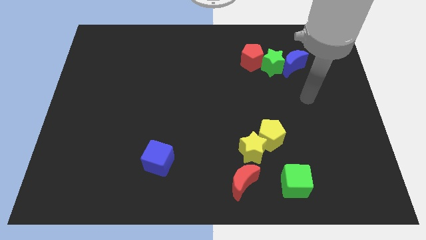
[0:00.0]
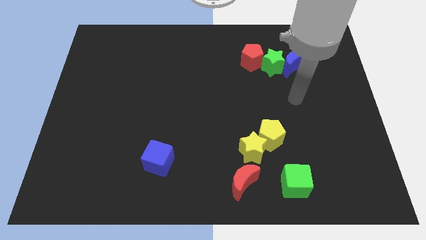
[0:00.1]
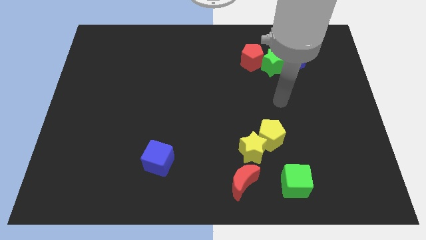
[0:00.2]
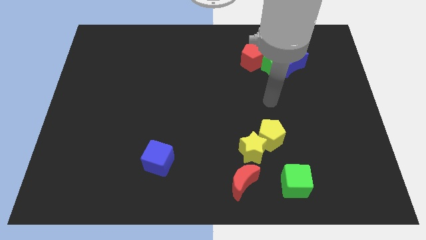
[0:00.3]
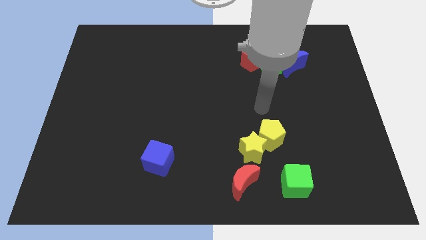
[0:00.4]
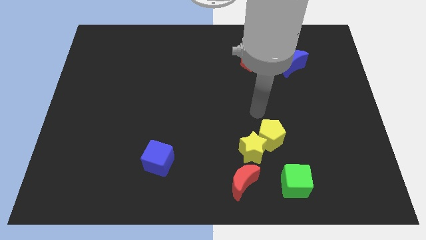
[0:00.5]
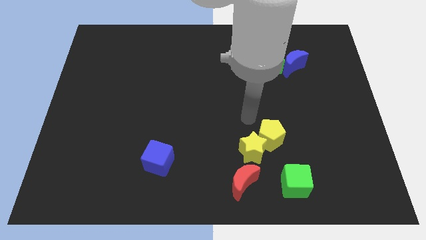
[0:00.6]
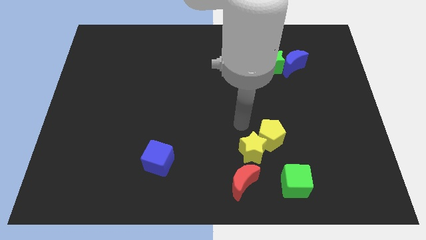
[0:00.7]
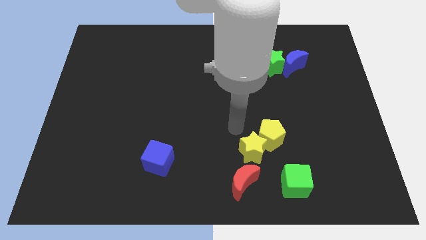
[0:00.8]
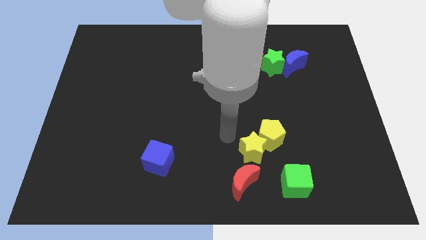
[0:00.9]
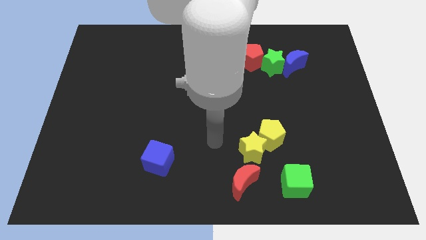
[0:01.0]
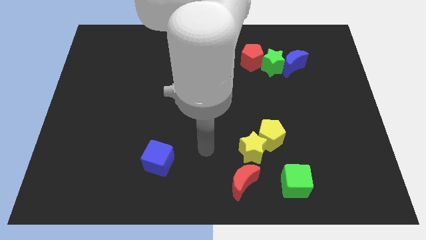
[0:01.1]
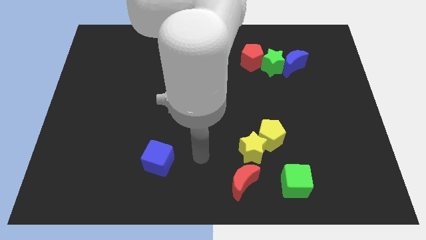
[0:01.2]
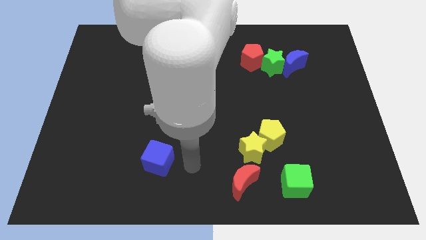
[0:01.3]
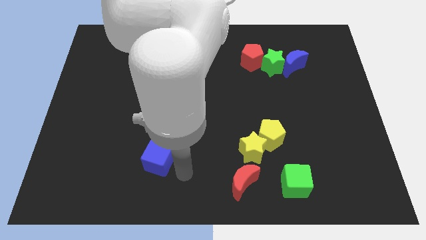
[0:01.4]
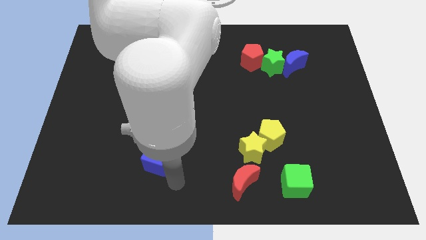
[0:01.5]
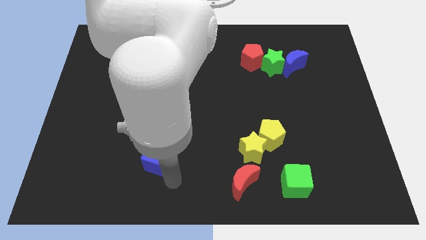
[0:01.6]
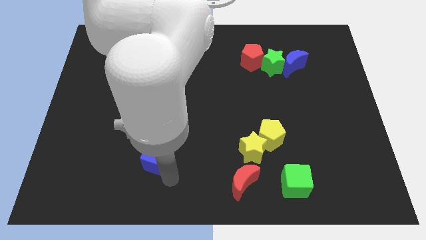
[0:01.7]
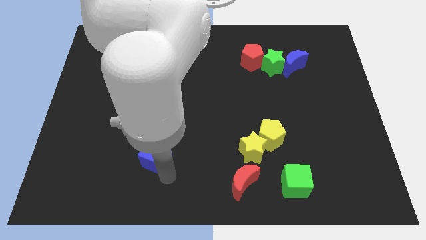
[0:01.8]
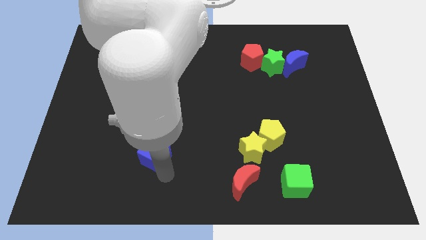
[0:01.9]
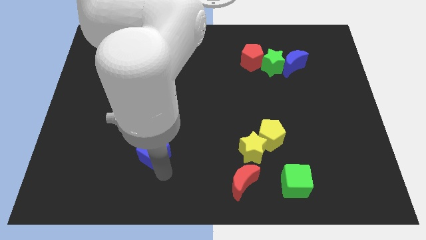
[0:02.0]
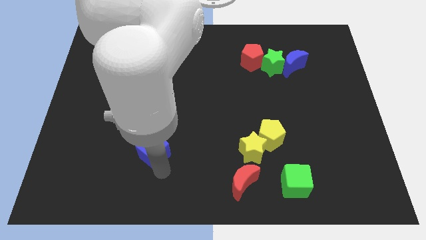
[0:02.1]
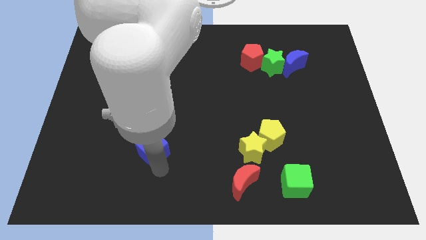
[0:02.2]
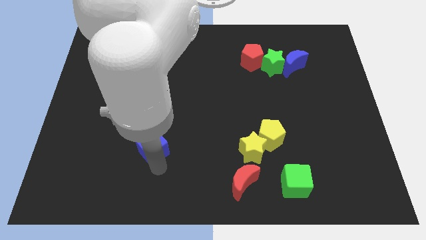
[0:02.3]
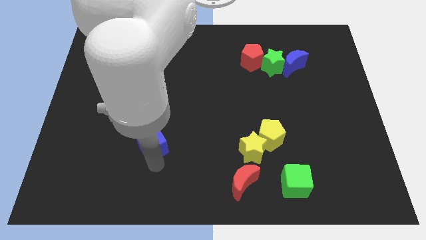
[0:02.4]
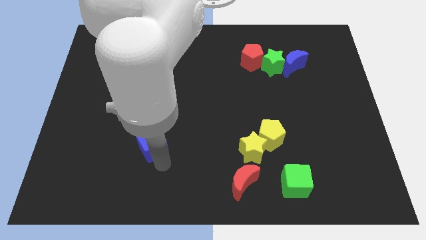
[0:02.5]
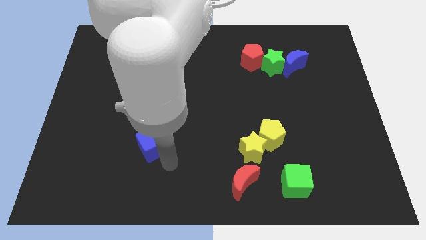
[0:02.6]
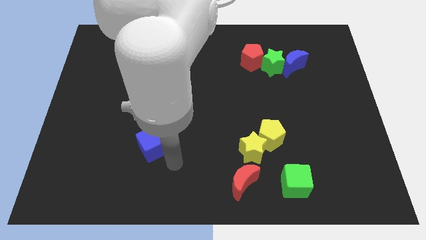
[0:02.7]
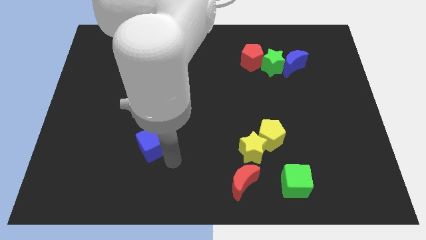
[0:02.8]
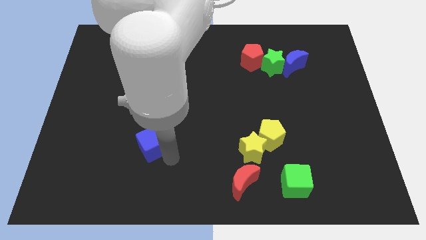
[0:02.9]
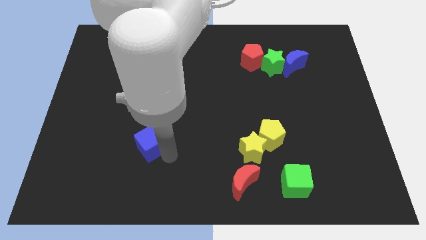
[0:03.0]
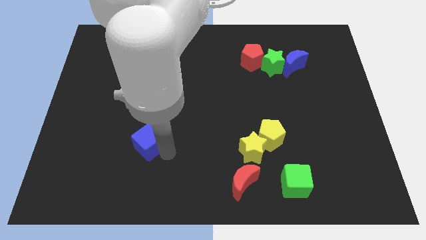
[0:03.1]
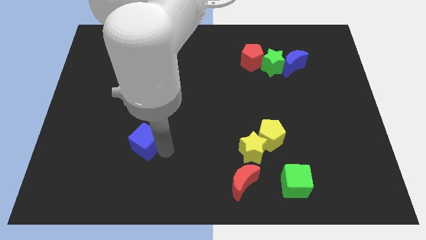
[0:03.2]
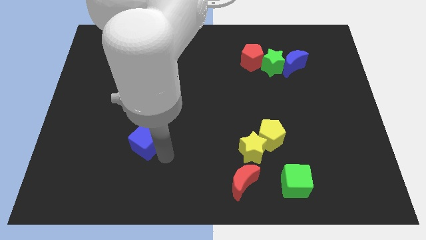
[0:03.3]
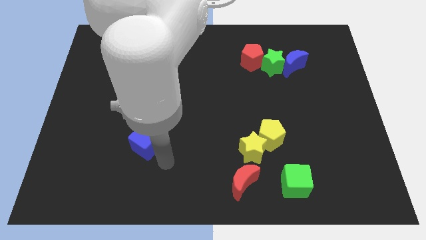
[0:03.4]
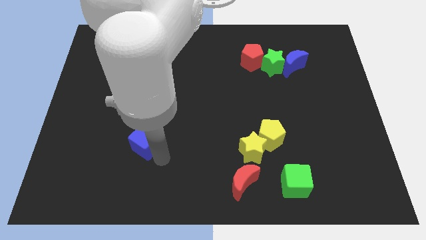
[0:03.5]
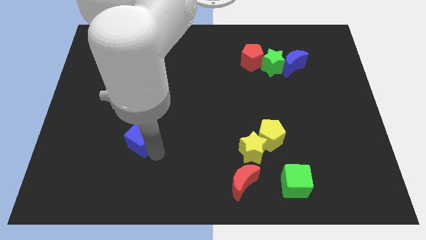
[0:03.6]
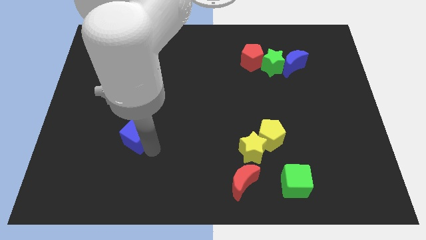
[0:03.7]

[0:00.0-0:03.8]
slide the blue cube diagonally upwards and to the left a bit

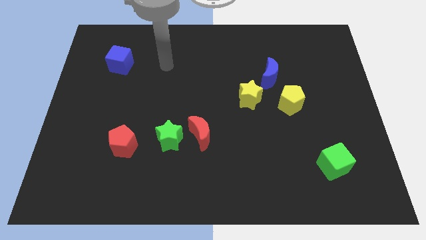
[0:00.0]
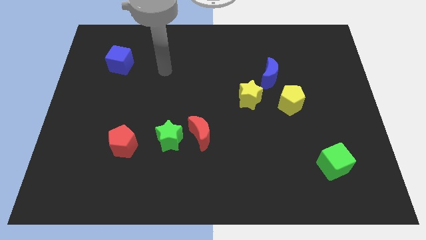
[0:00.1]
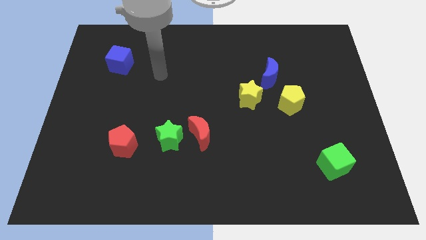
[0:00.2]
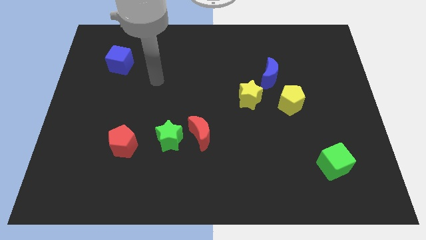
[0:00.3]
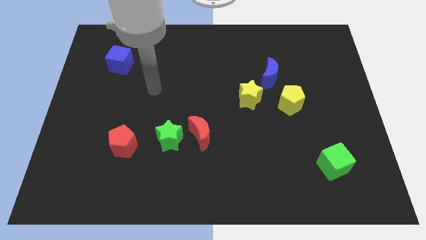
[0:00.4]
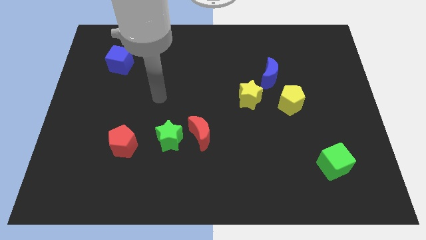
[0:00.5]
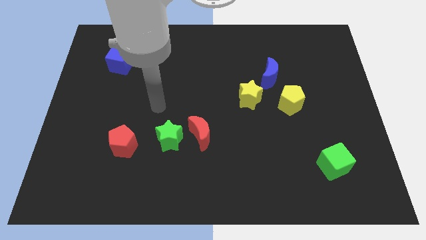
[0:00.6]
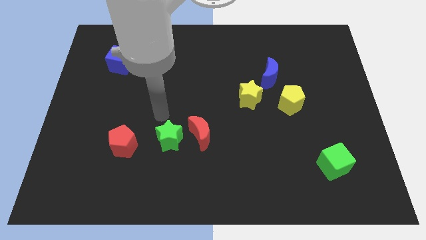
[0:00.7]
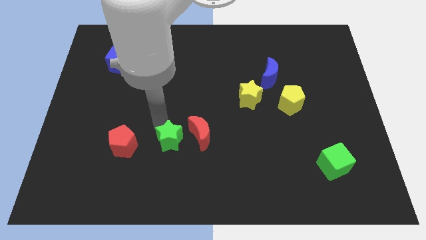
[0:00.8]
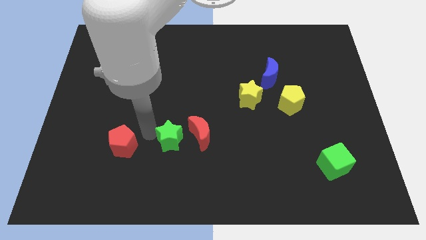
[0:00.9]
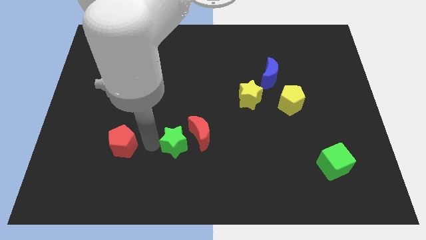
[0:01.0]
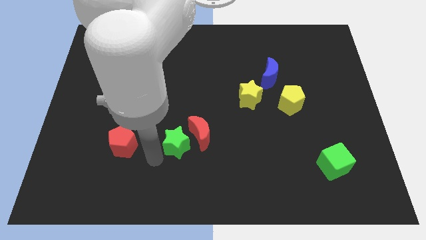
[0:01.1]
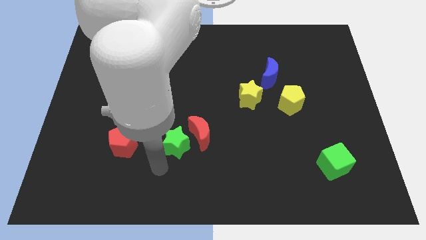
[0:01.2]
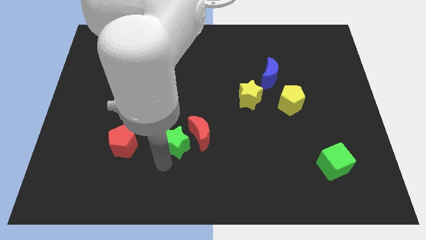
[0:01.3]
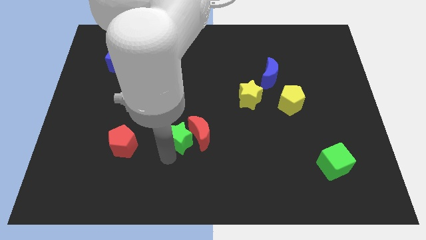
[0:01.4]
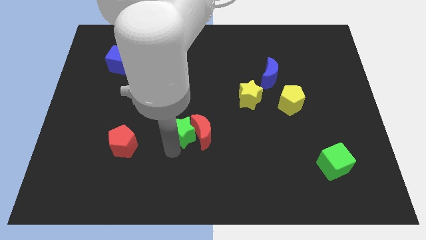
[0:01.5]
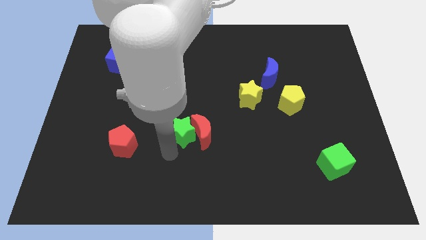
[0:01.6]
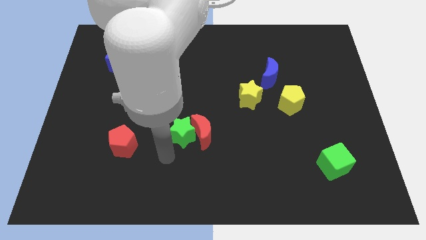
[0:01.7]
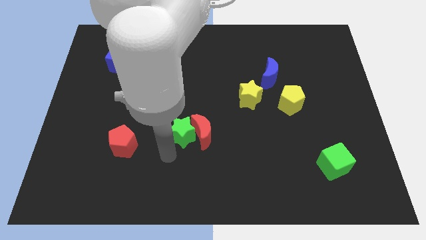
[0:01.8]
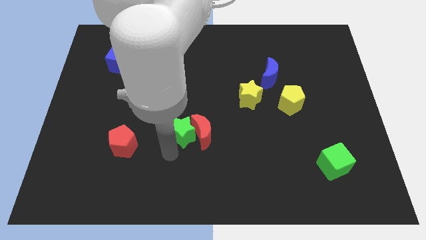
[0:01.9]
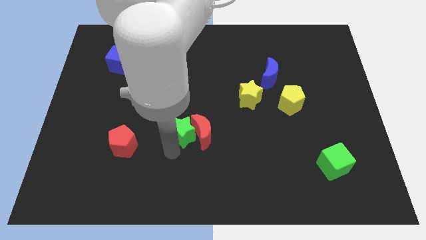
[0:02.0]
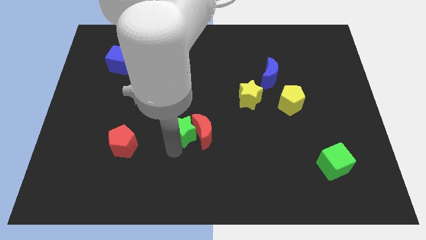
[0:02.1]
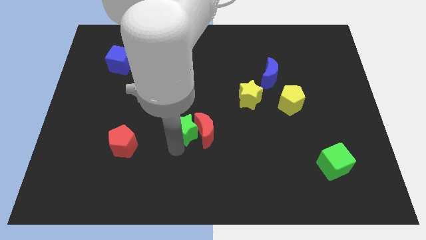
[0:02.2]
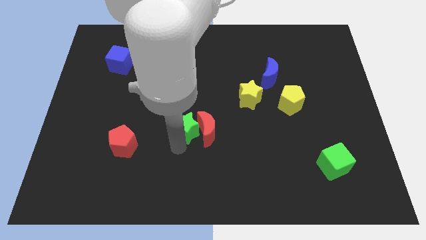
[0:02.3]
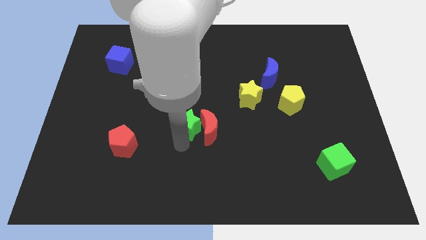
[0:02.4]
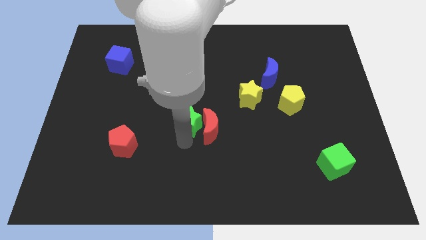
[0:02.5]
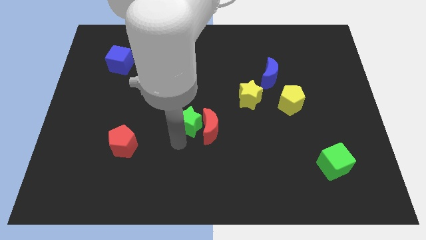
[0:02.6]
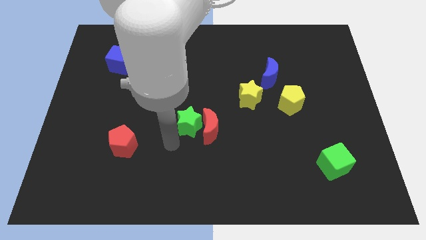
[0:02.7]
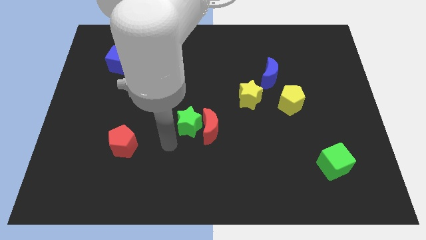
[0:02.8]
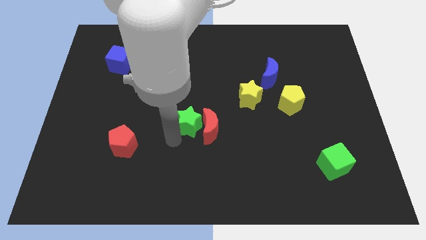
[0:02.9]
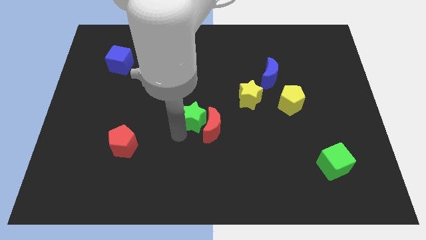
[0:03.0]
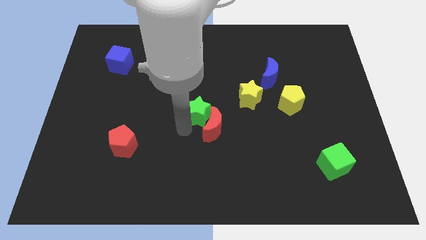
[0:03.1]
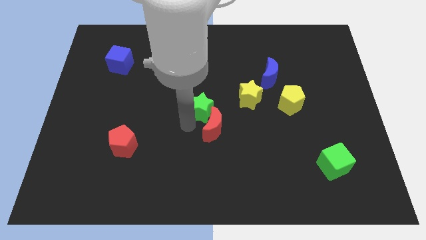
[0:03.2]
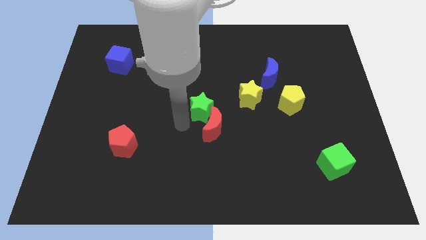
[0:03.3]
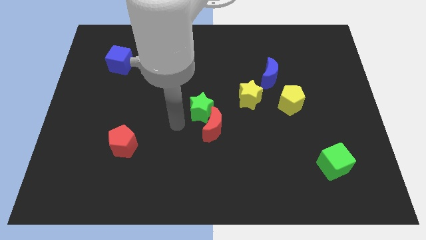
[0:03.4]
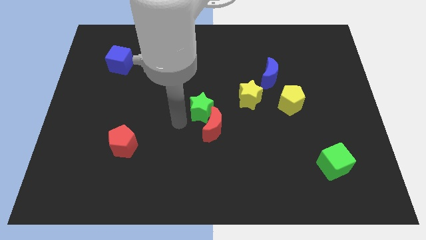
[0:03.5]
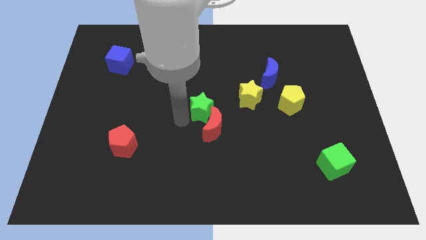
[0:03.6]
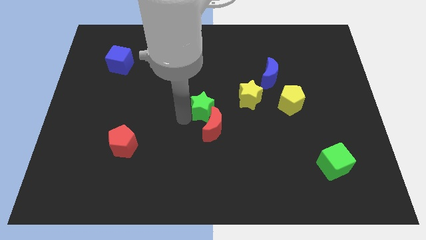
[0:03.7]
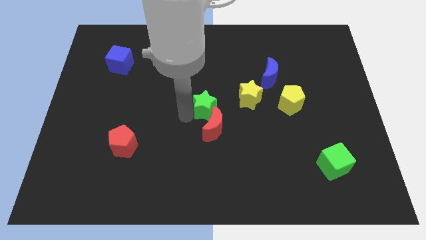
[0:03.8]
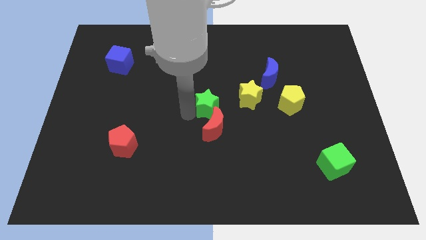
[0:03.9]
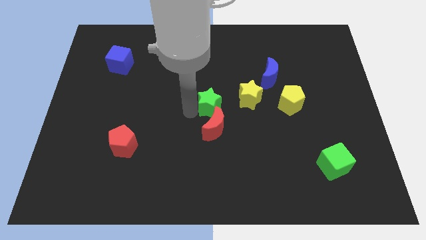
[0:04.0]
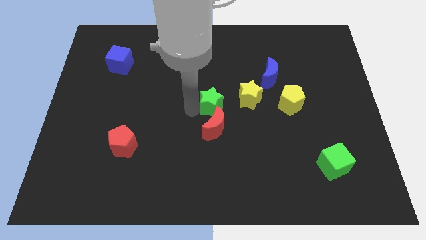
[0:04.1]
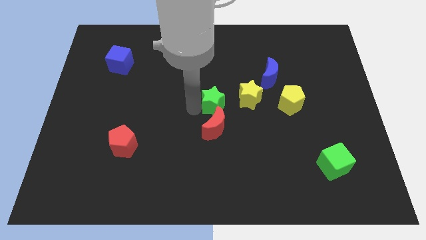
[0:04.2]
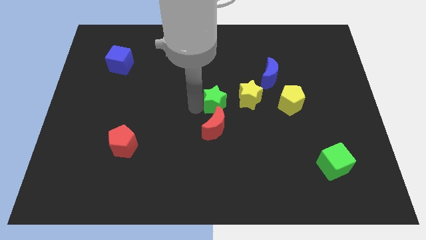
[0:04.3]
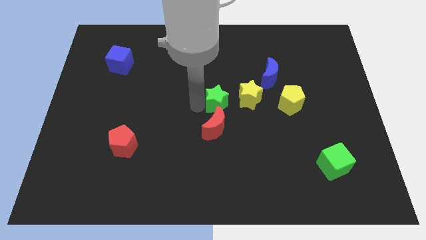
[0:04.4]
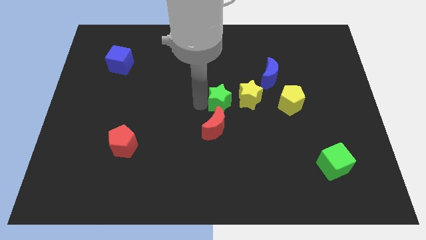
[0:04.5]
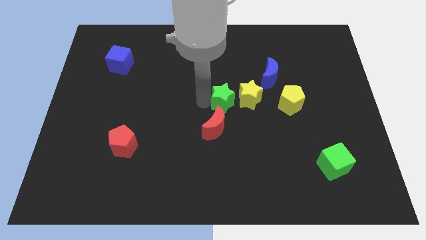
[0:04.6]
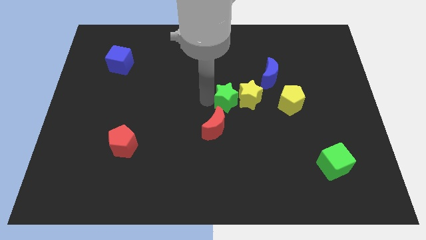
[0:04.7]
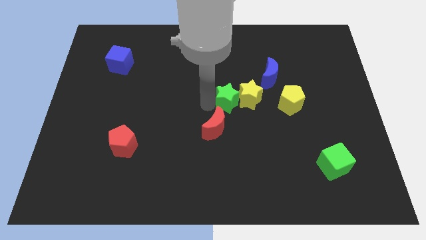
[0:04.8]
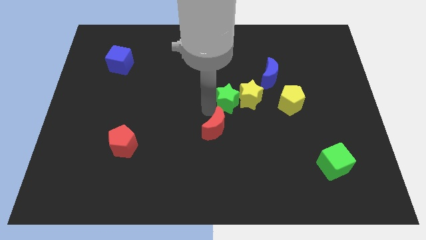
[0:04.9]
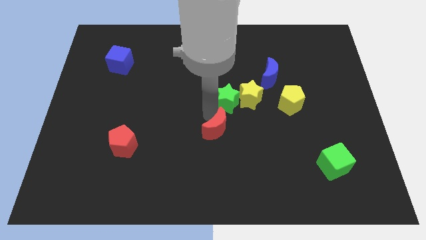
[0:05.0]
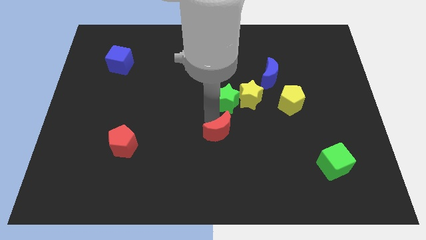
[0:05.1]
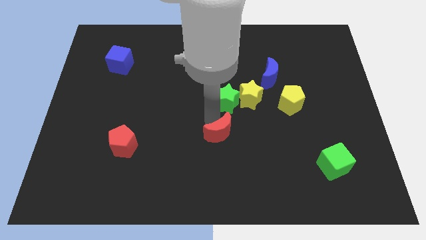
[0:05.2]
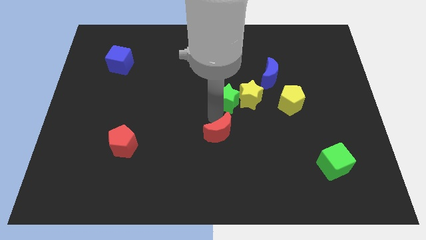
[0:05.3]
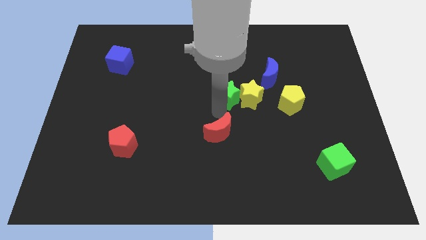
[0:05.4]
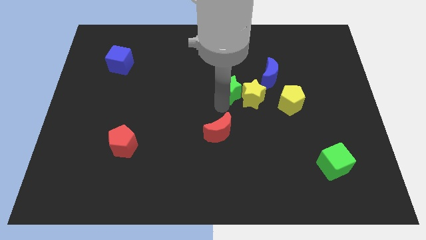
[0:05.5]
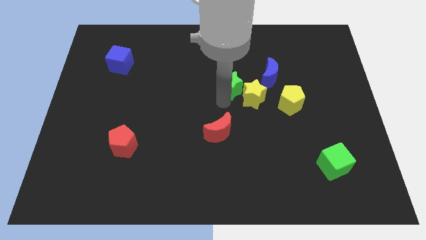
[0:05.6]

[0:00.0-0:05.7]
move the green star up and right
